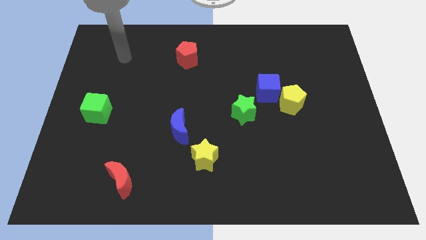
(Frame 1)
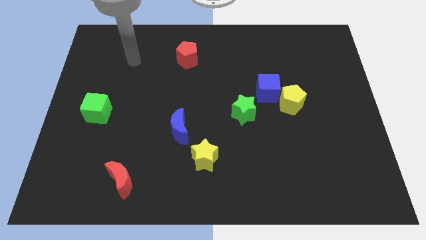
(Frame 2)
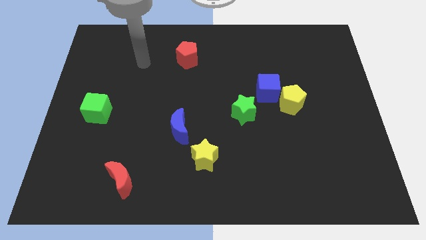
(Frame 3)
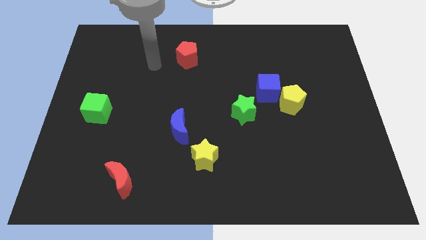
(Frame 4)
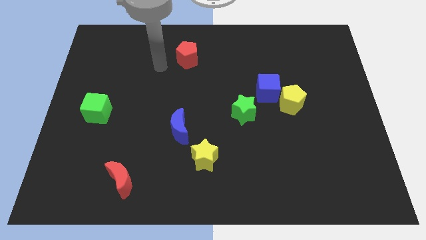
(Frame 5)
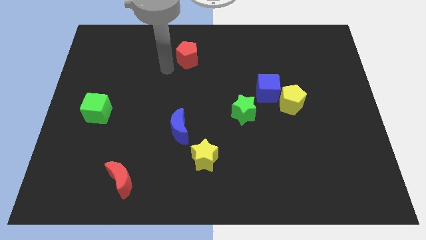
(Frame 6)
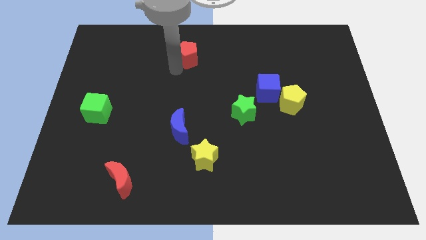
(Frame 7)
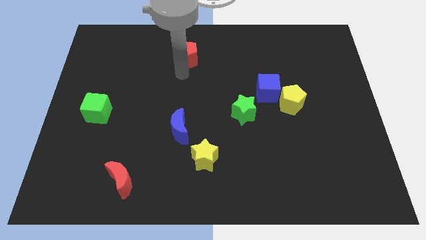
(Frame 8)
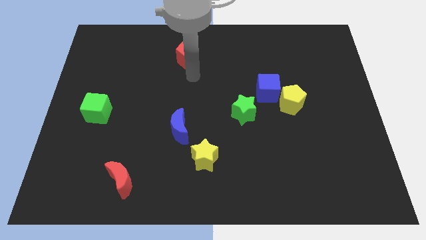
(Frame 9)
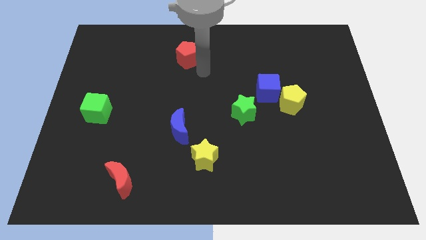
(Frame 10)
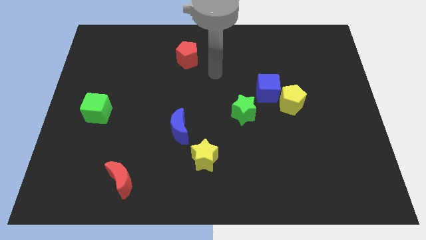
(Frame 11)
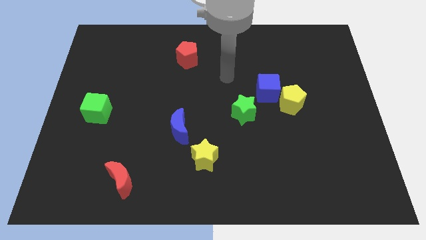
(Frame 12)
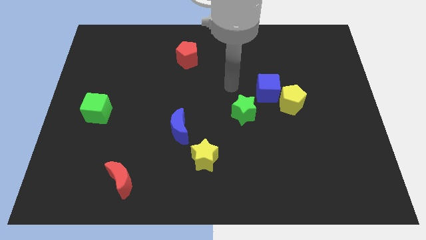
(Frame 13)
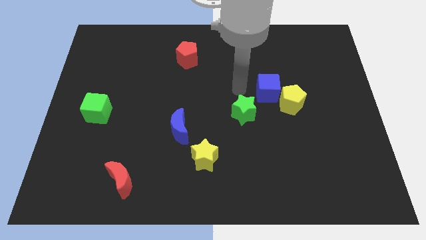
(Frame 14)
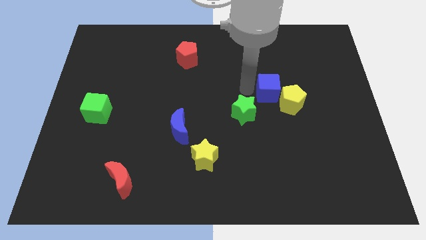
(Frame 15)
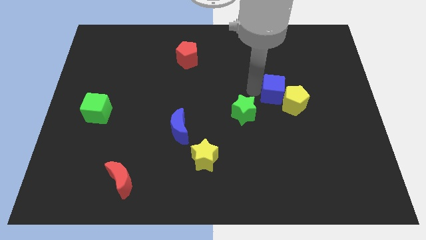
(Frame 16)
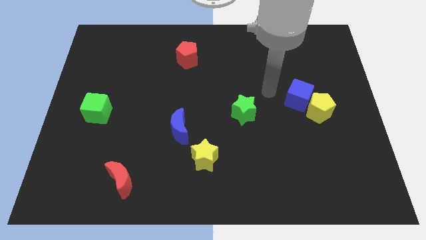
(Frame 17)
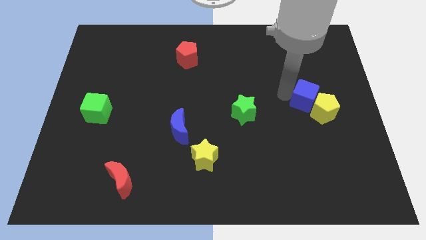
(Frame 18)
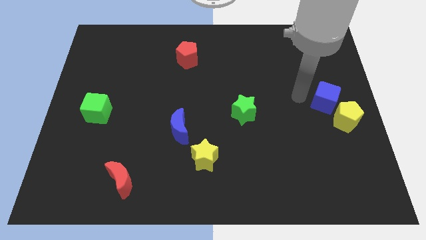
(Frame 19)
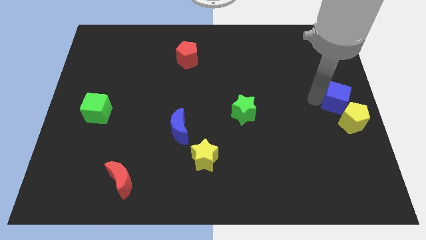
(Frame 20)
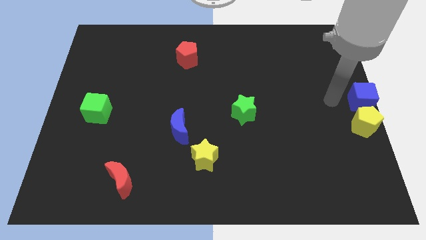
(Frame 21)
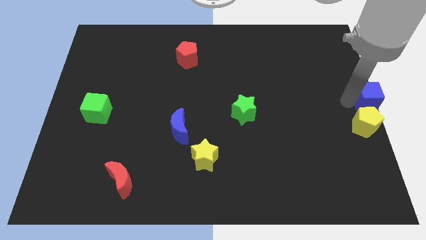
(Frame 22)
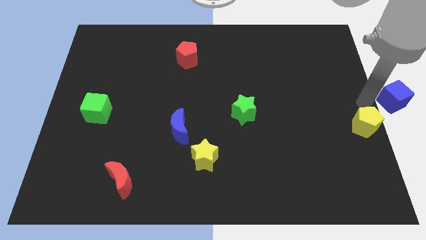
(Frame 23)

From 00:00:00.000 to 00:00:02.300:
move the yellow pentagon away from the blue cube

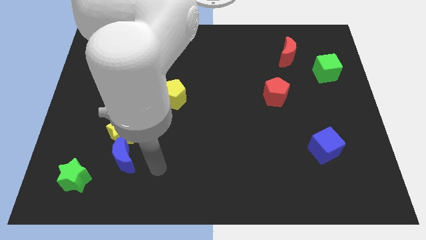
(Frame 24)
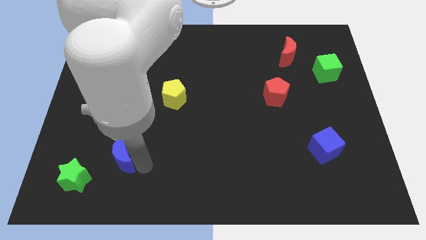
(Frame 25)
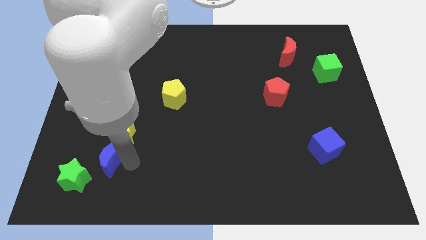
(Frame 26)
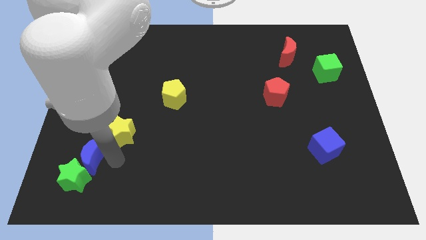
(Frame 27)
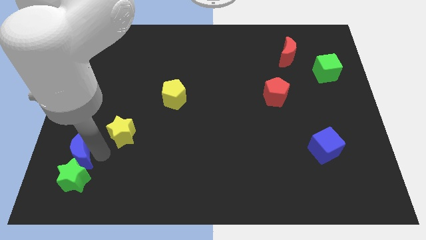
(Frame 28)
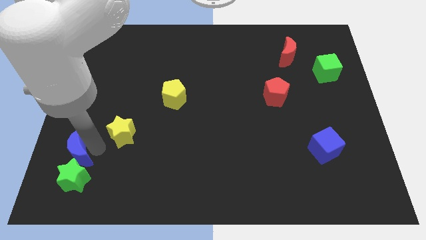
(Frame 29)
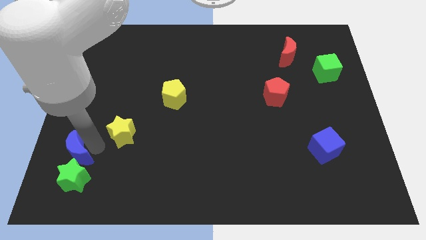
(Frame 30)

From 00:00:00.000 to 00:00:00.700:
separate the yellow star from the blue moon

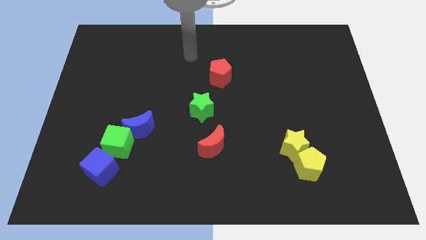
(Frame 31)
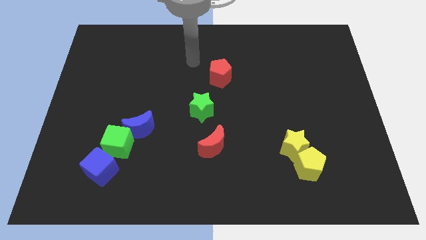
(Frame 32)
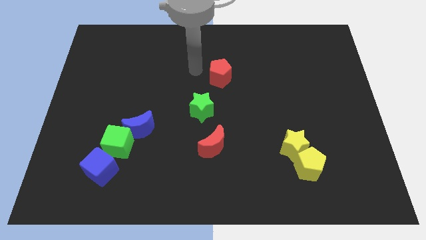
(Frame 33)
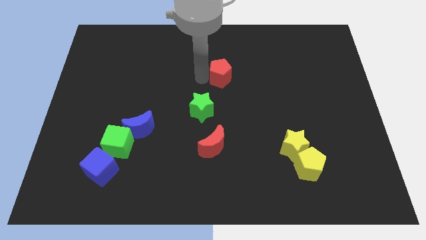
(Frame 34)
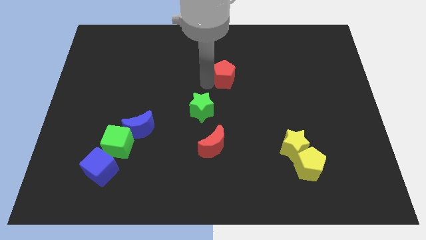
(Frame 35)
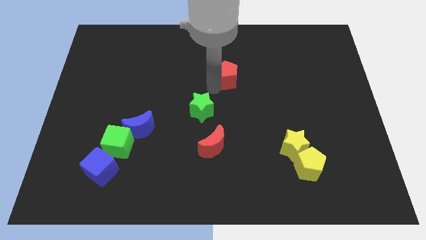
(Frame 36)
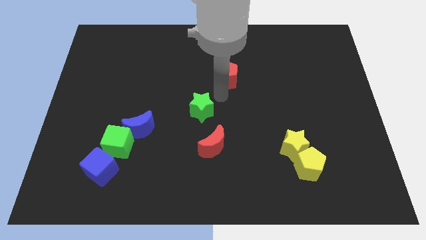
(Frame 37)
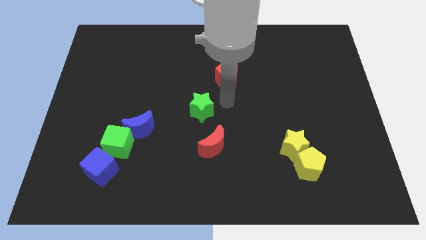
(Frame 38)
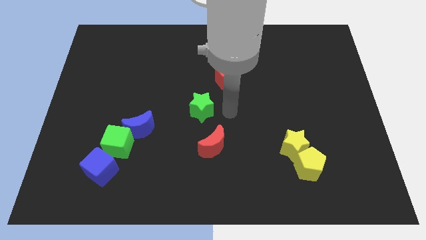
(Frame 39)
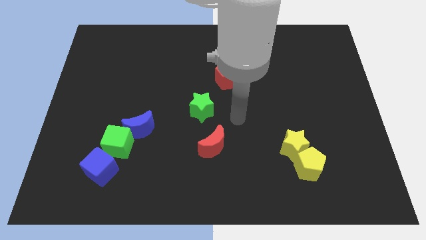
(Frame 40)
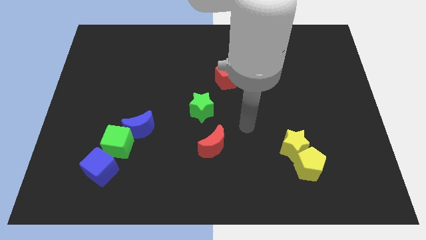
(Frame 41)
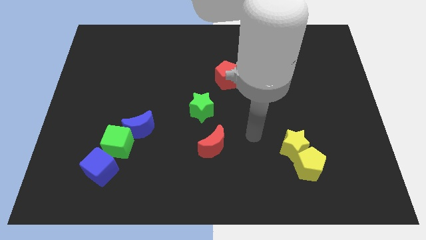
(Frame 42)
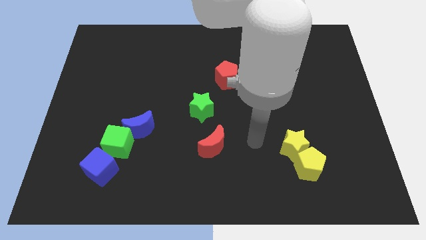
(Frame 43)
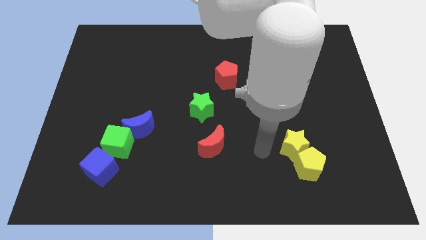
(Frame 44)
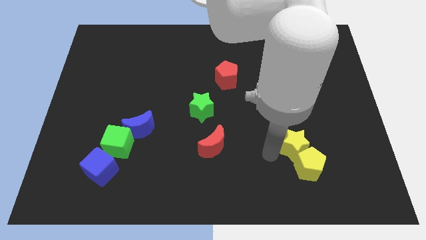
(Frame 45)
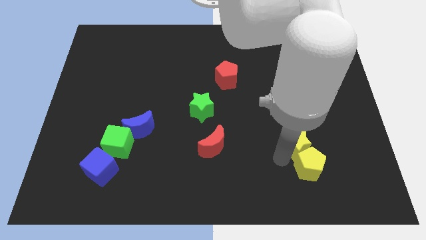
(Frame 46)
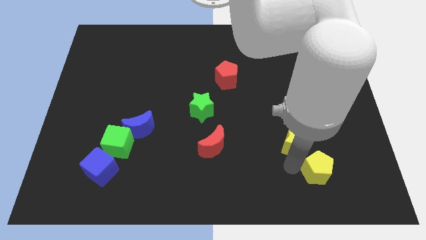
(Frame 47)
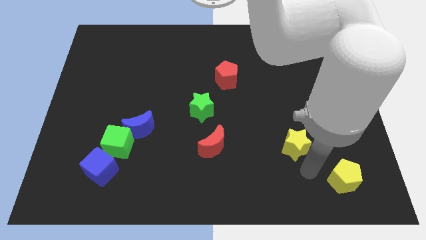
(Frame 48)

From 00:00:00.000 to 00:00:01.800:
separate the yellow star from the yellow pentagon

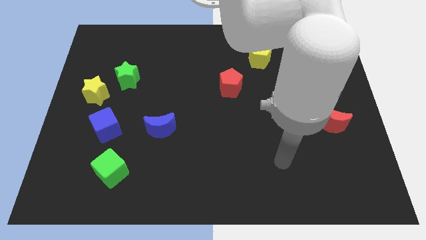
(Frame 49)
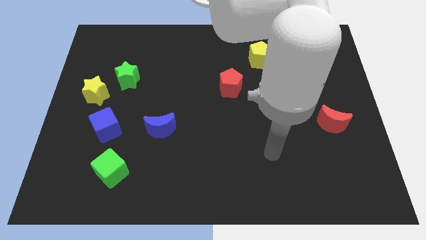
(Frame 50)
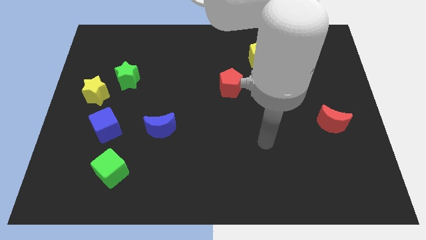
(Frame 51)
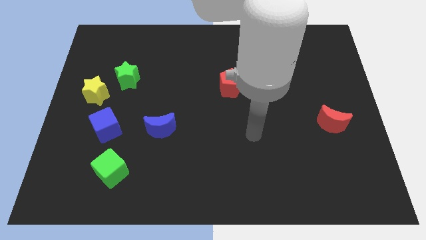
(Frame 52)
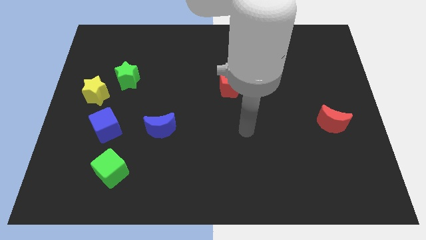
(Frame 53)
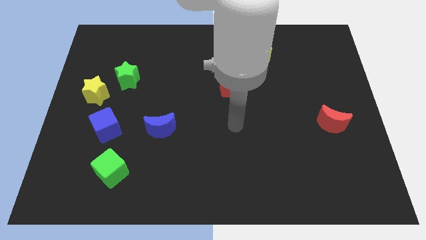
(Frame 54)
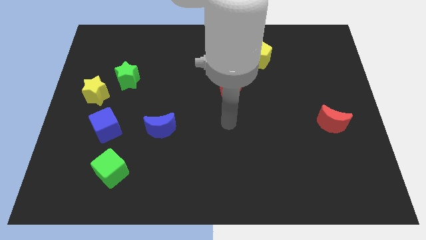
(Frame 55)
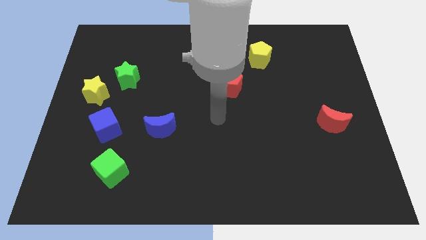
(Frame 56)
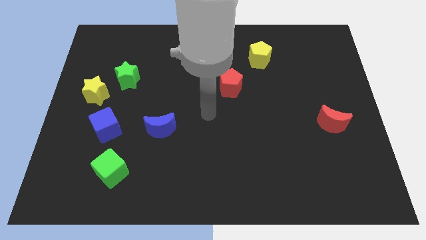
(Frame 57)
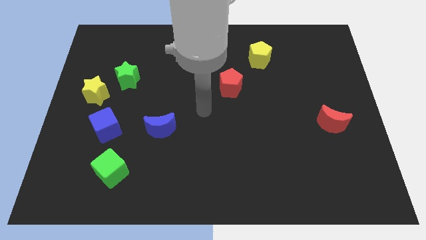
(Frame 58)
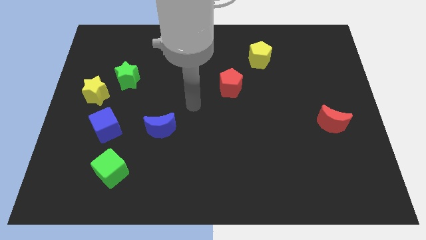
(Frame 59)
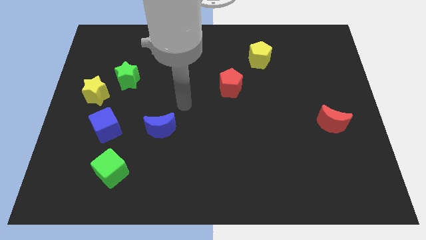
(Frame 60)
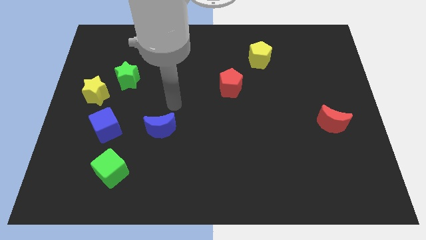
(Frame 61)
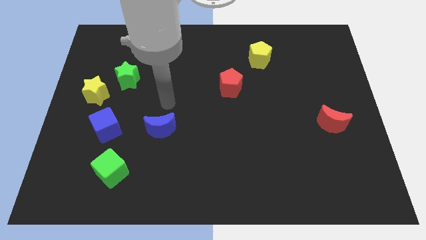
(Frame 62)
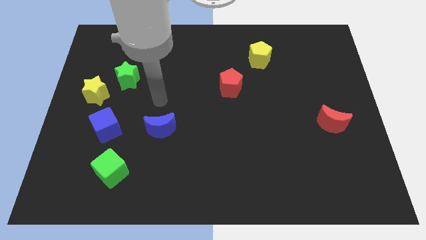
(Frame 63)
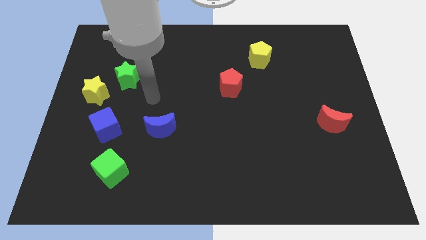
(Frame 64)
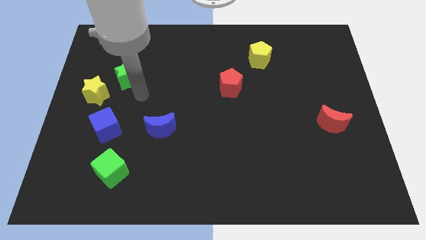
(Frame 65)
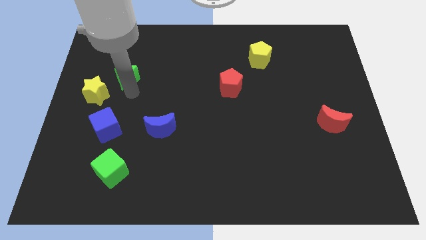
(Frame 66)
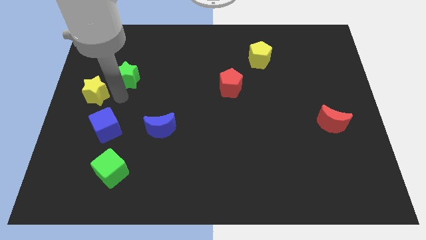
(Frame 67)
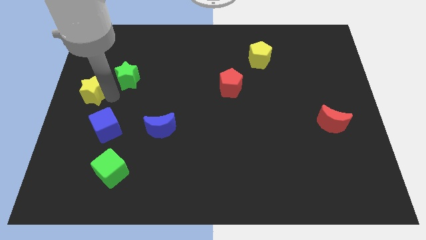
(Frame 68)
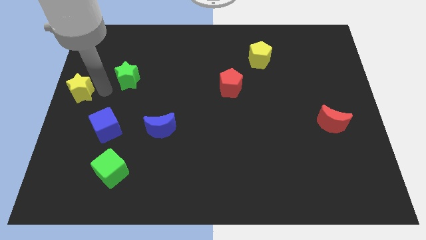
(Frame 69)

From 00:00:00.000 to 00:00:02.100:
separate the green star from the yellow star

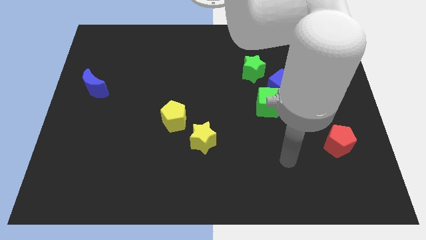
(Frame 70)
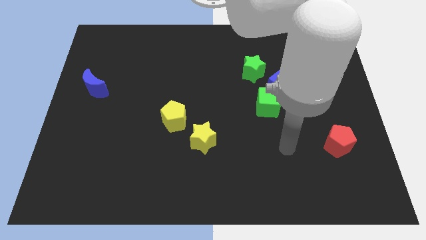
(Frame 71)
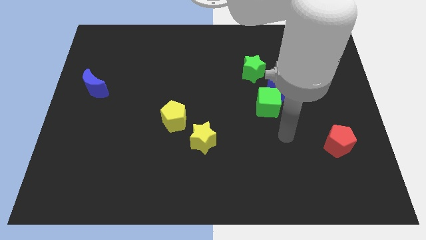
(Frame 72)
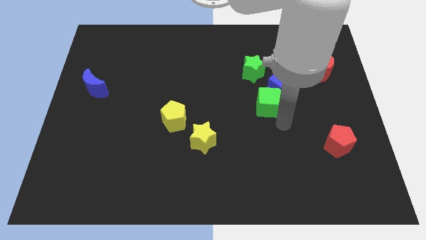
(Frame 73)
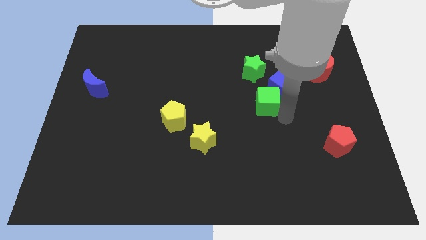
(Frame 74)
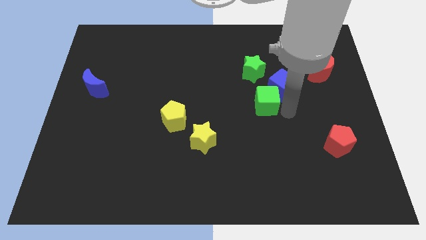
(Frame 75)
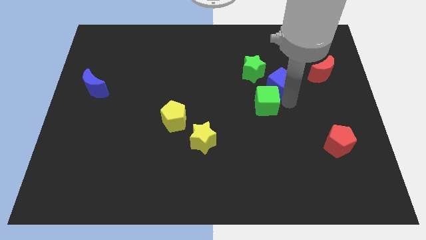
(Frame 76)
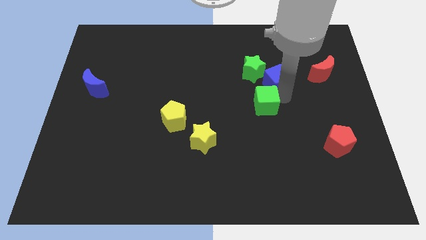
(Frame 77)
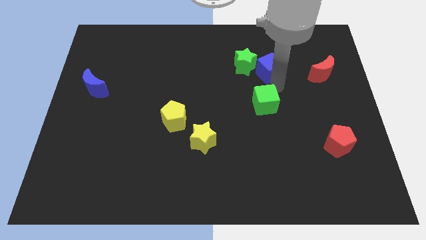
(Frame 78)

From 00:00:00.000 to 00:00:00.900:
separate the green cube from the blue cube

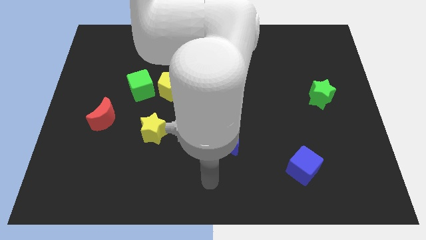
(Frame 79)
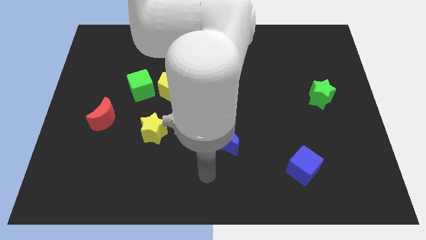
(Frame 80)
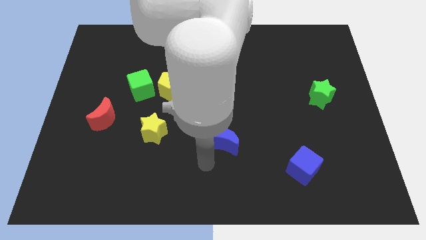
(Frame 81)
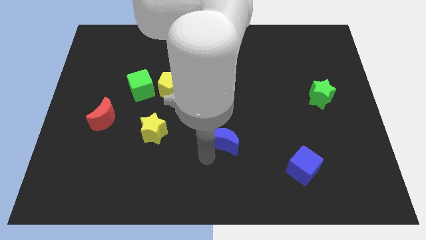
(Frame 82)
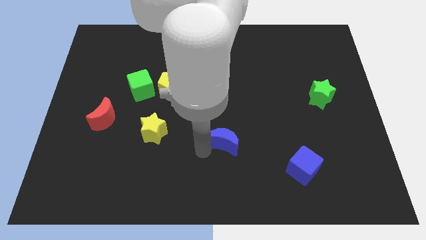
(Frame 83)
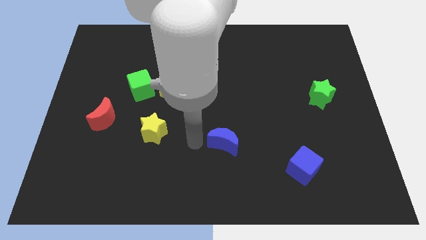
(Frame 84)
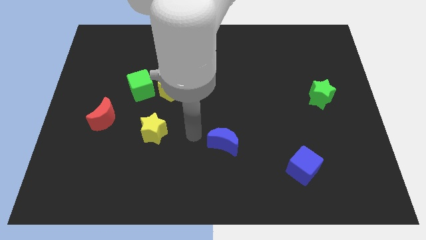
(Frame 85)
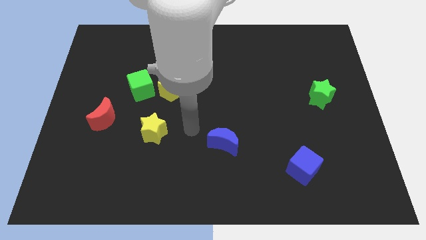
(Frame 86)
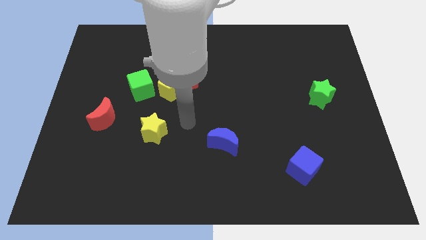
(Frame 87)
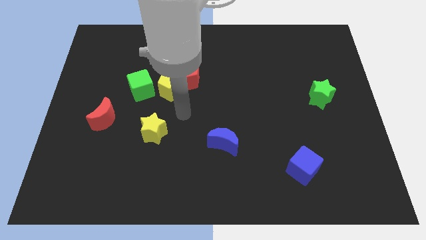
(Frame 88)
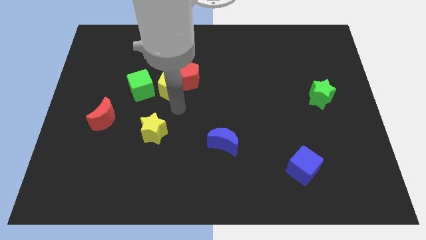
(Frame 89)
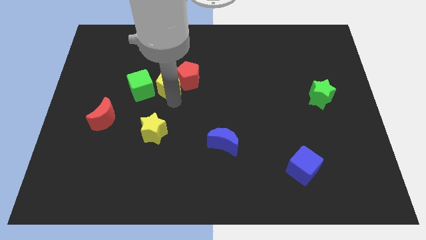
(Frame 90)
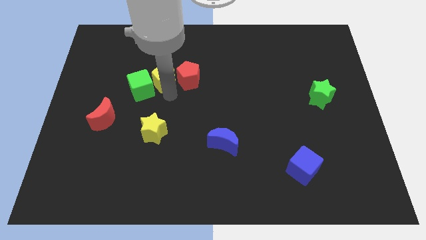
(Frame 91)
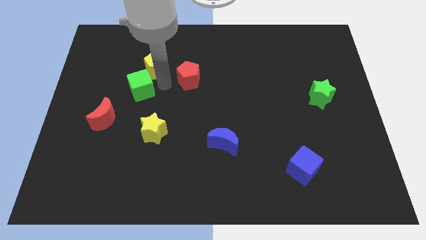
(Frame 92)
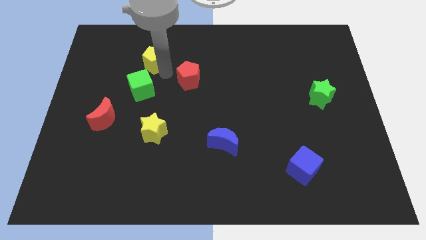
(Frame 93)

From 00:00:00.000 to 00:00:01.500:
move the red pentagon away from the yellow pentagon
